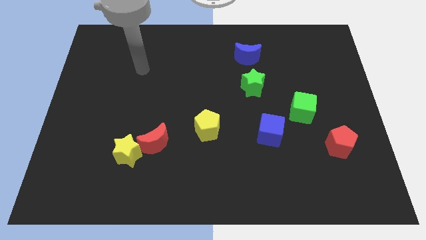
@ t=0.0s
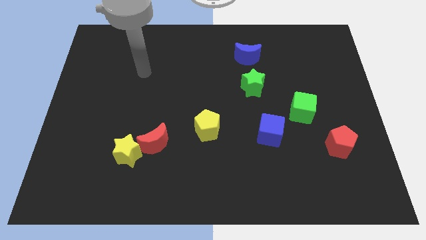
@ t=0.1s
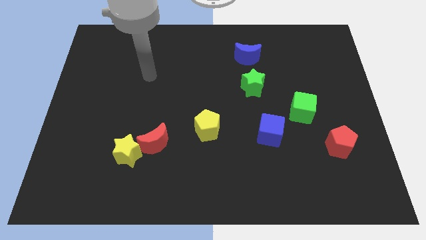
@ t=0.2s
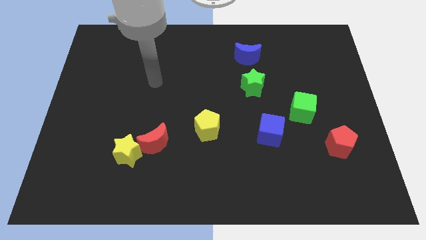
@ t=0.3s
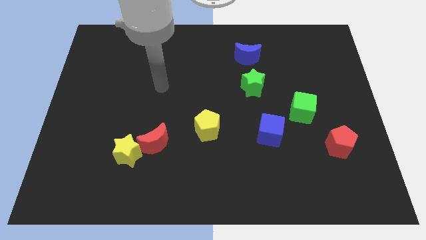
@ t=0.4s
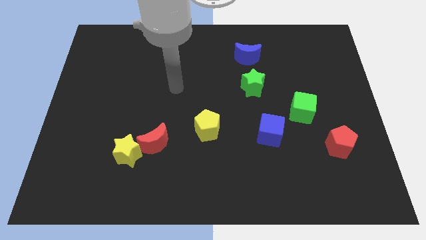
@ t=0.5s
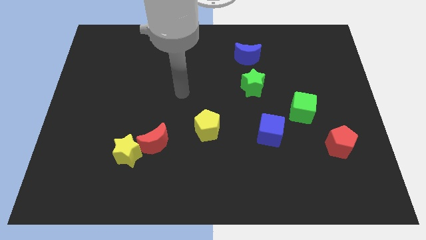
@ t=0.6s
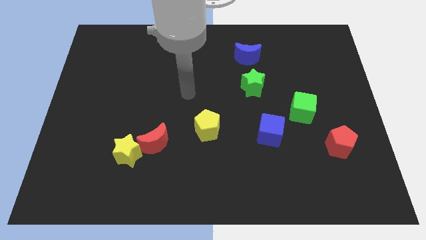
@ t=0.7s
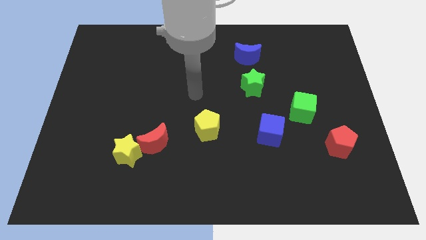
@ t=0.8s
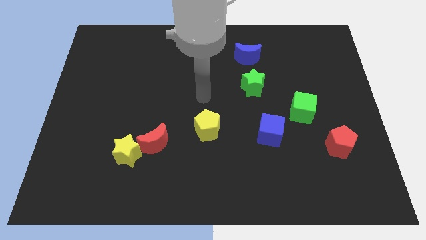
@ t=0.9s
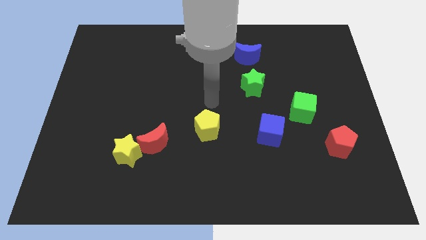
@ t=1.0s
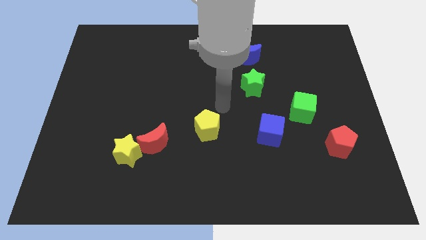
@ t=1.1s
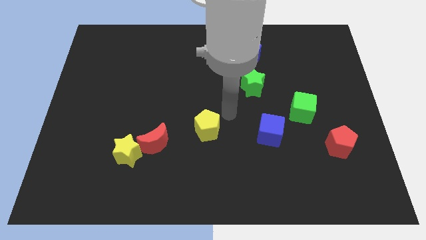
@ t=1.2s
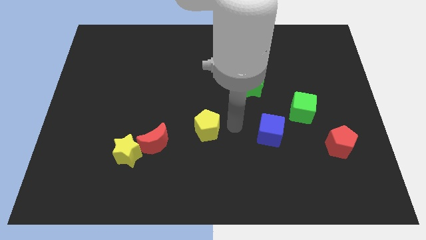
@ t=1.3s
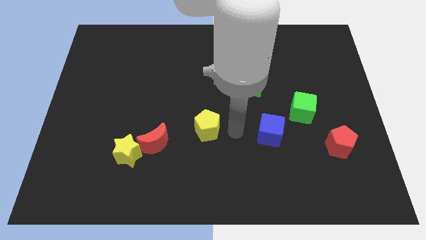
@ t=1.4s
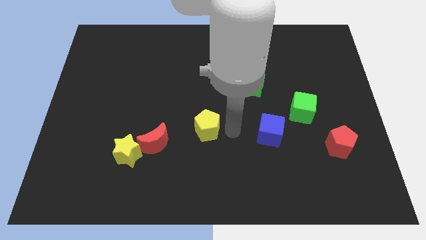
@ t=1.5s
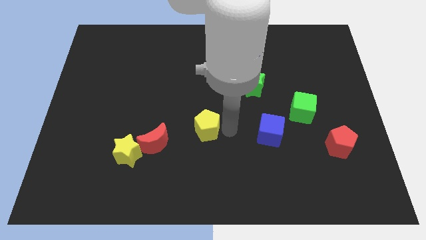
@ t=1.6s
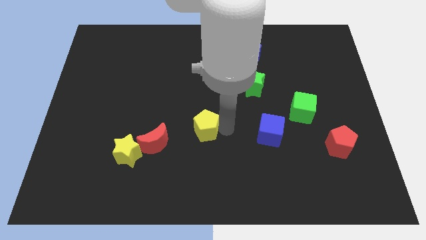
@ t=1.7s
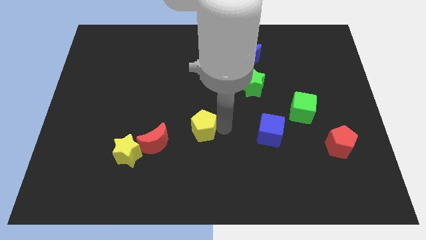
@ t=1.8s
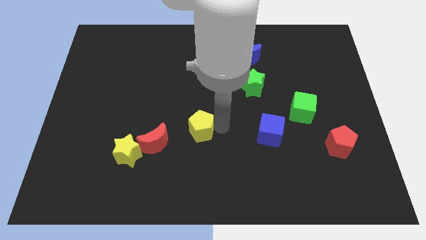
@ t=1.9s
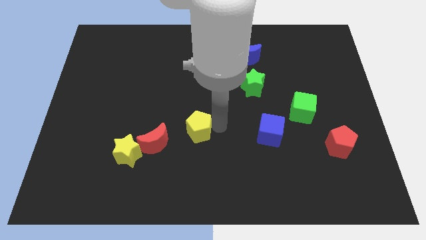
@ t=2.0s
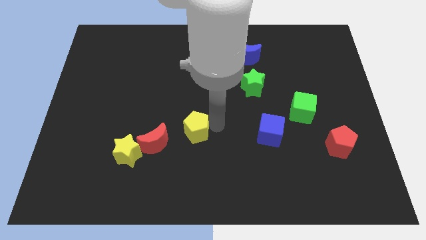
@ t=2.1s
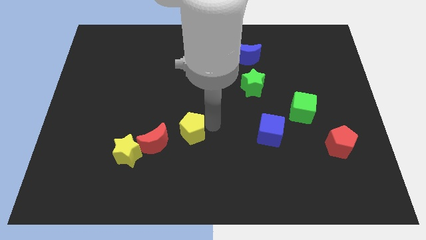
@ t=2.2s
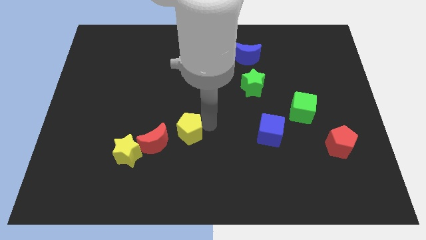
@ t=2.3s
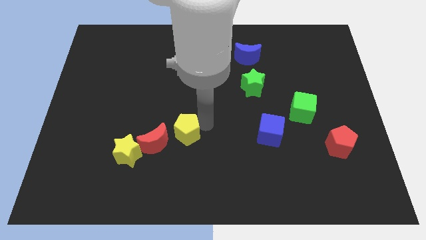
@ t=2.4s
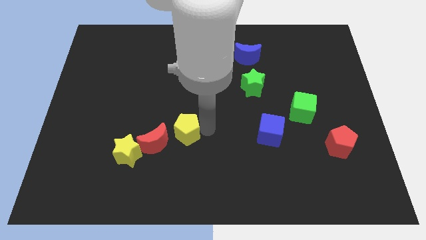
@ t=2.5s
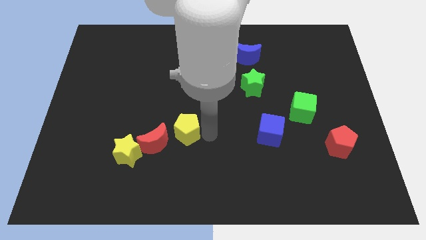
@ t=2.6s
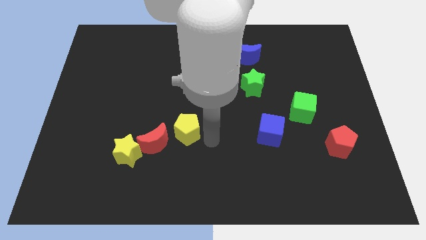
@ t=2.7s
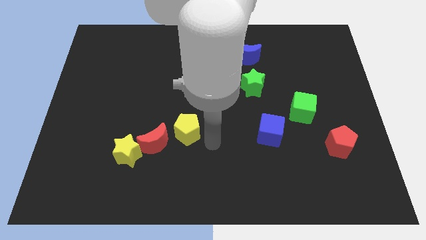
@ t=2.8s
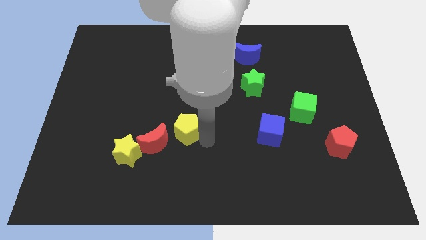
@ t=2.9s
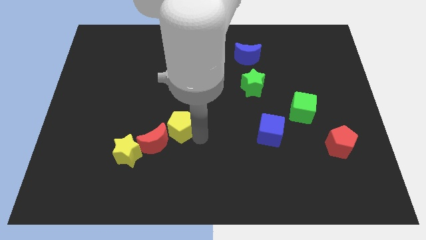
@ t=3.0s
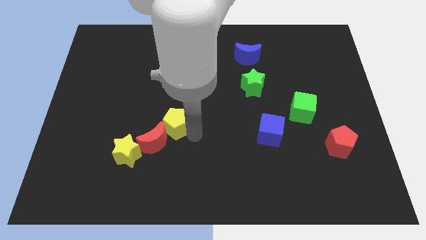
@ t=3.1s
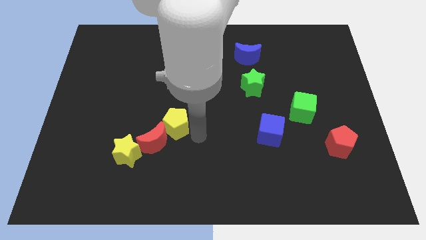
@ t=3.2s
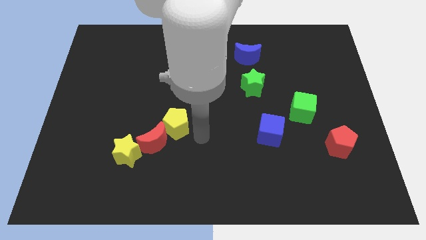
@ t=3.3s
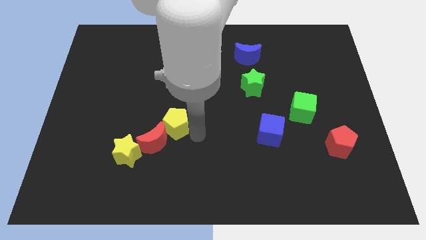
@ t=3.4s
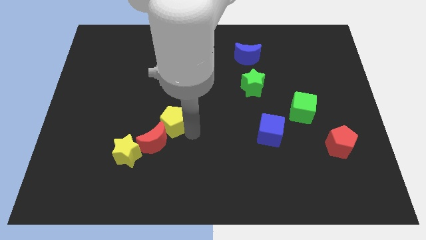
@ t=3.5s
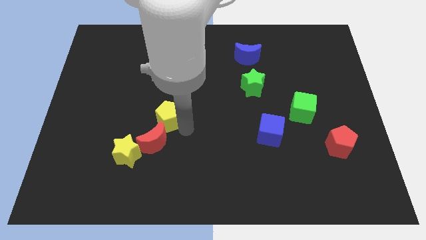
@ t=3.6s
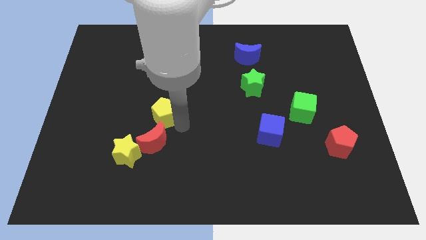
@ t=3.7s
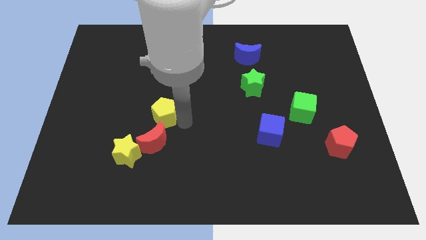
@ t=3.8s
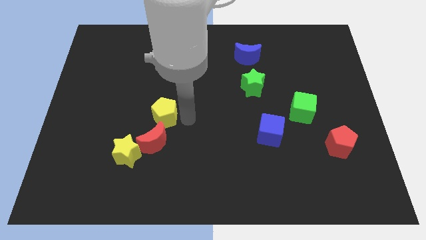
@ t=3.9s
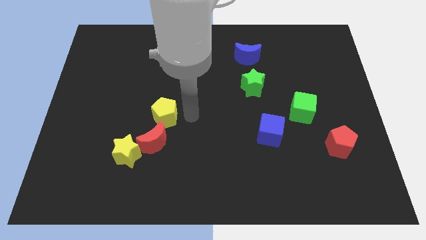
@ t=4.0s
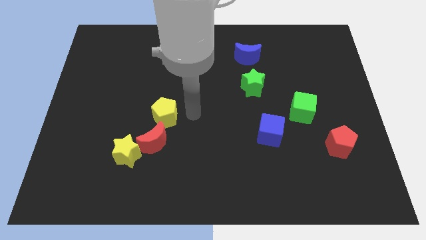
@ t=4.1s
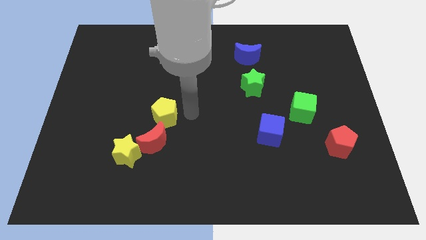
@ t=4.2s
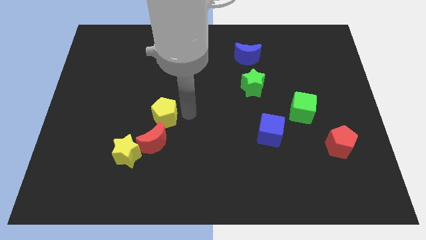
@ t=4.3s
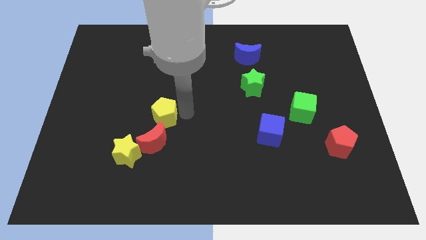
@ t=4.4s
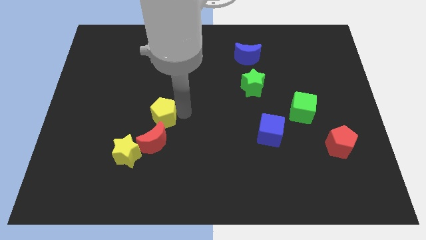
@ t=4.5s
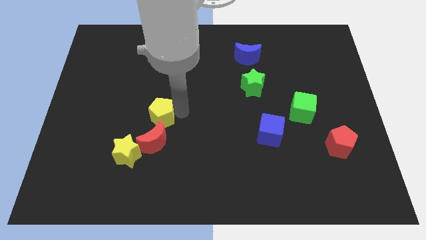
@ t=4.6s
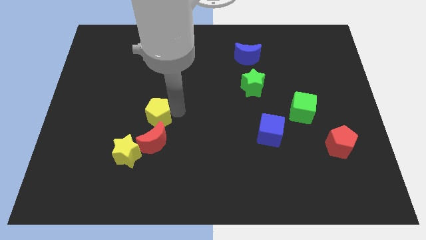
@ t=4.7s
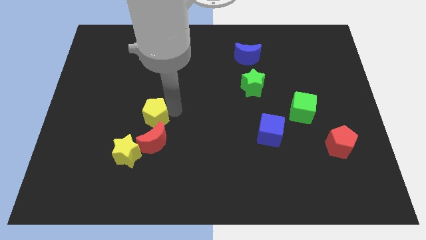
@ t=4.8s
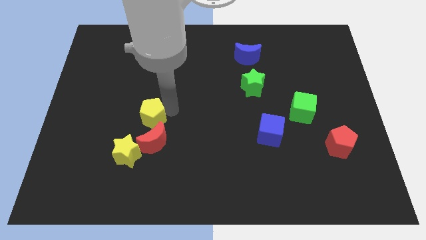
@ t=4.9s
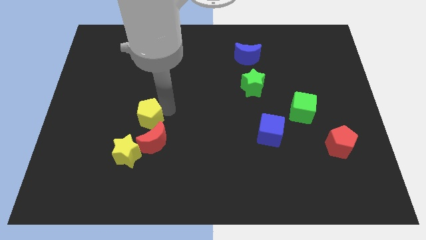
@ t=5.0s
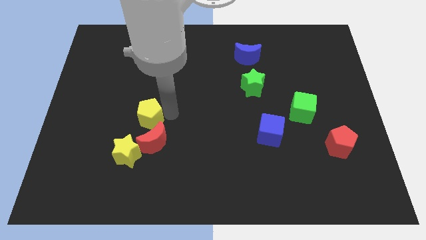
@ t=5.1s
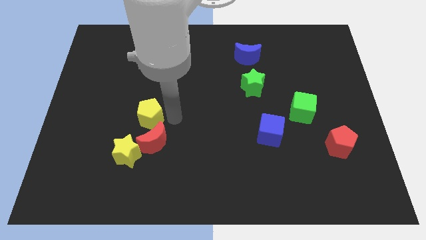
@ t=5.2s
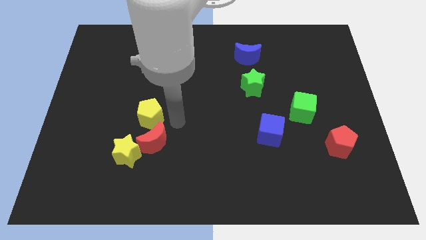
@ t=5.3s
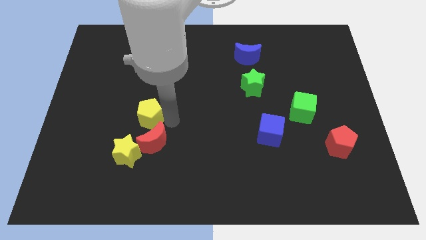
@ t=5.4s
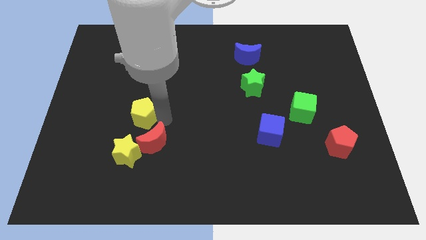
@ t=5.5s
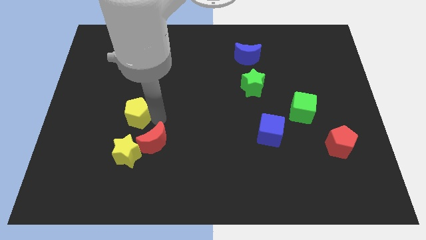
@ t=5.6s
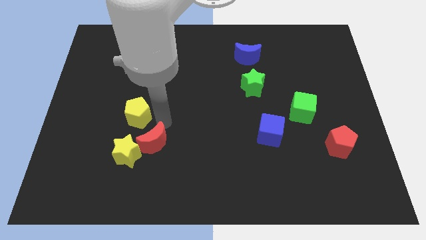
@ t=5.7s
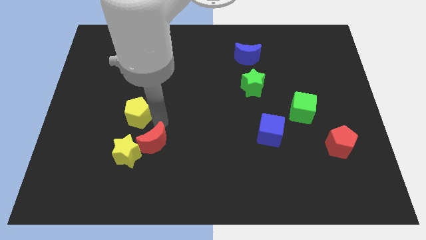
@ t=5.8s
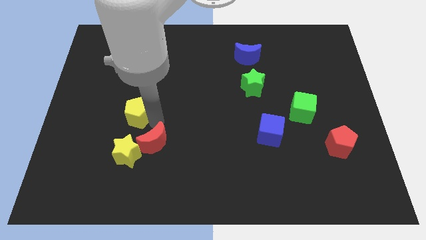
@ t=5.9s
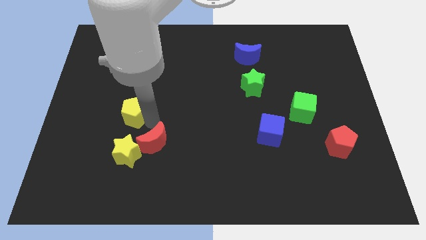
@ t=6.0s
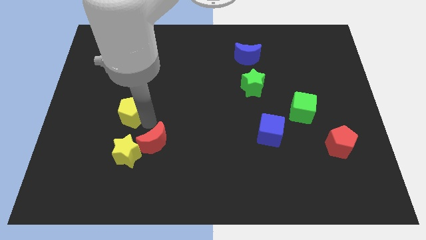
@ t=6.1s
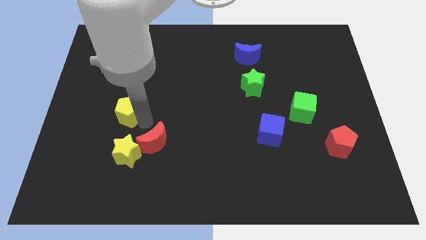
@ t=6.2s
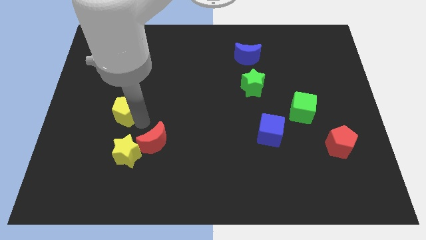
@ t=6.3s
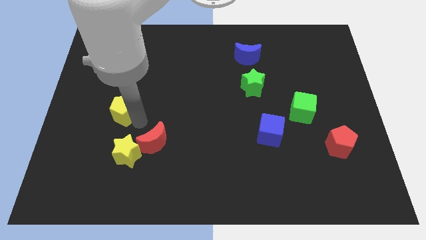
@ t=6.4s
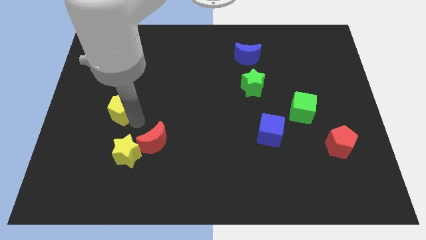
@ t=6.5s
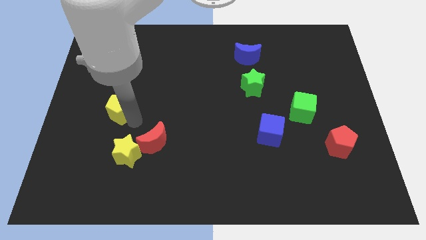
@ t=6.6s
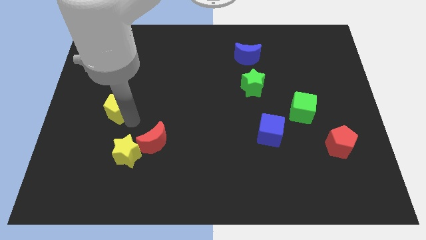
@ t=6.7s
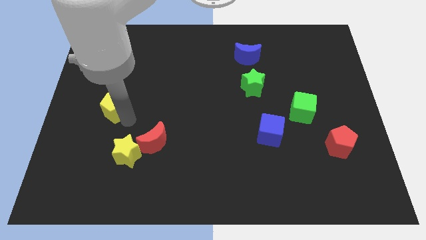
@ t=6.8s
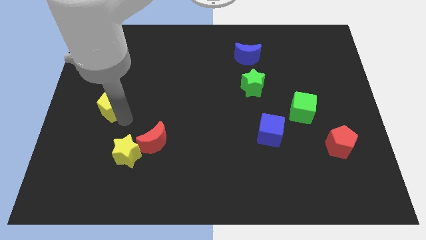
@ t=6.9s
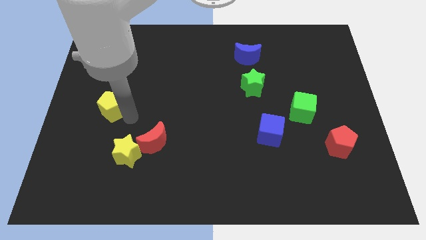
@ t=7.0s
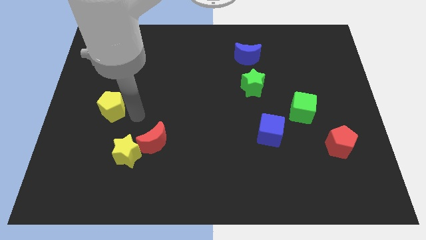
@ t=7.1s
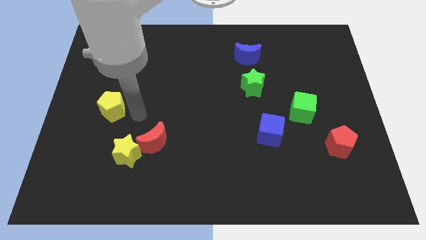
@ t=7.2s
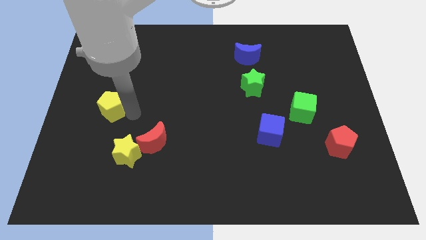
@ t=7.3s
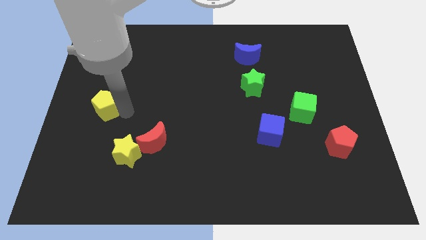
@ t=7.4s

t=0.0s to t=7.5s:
move the yellow pentagon to the center left
